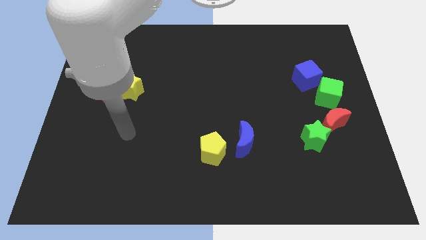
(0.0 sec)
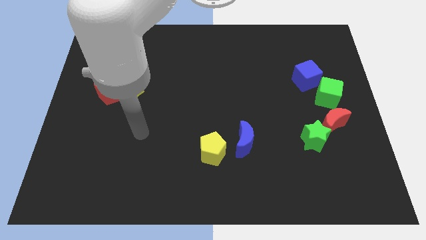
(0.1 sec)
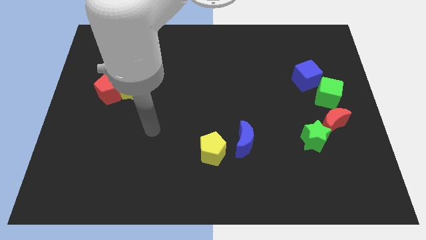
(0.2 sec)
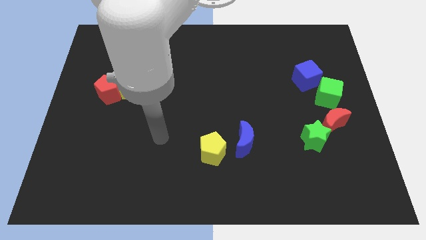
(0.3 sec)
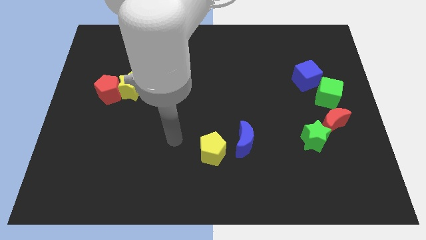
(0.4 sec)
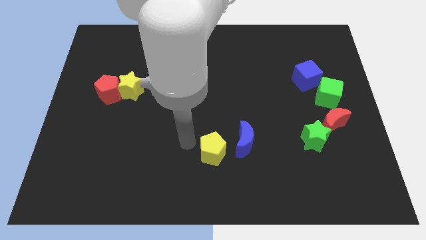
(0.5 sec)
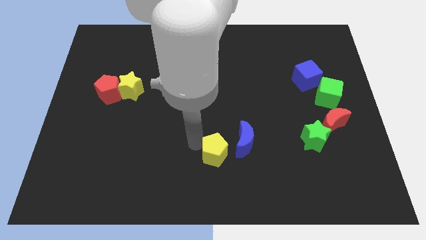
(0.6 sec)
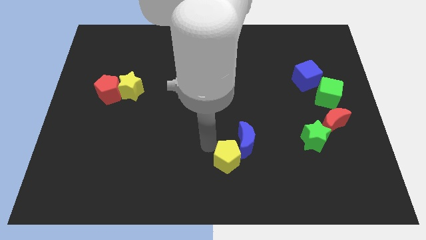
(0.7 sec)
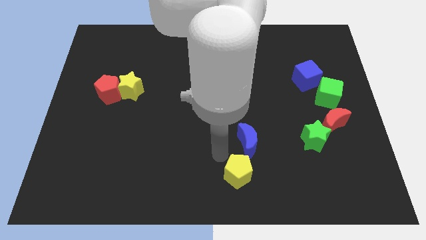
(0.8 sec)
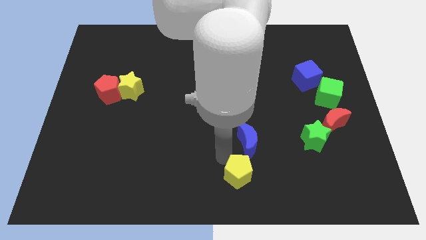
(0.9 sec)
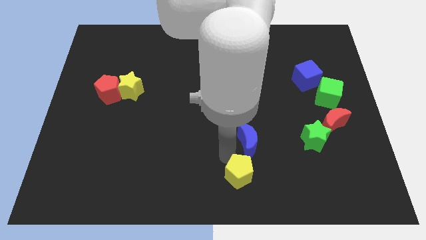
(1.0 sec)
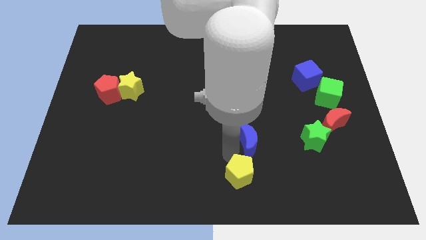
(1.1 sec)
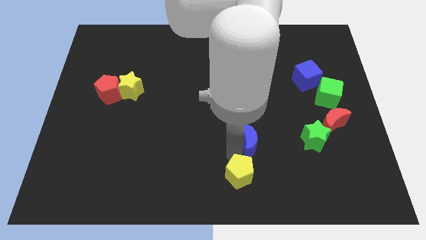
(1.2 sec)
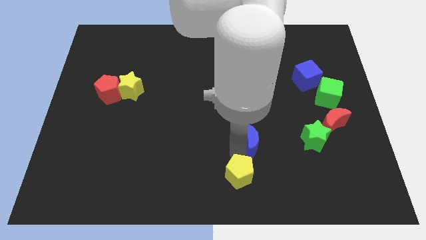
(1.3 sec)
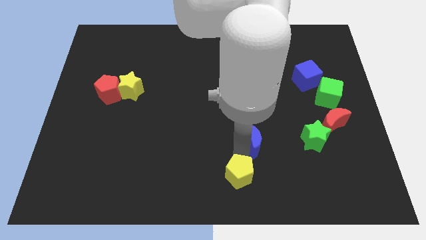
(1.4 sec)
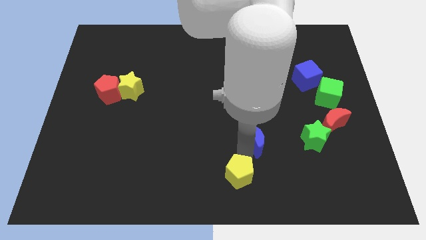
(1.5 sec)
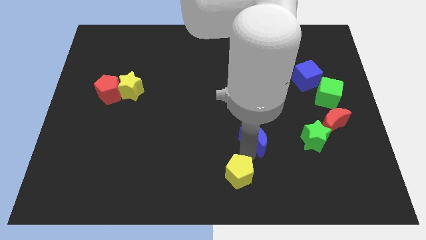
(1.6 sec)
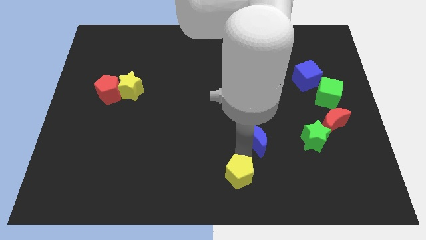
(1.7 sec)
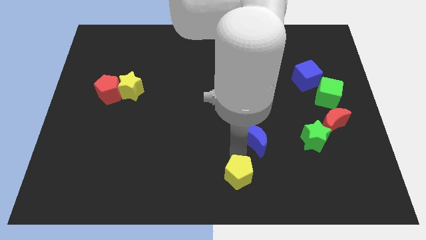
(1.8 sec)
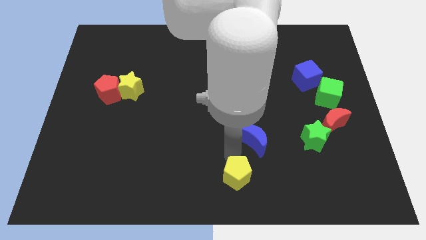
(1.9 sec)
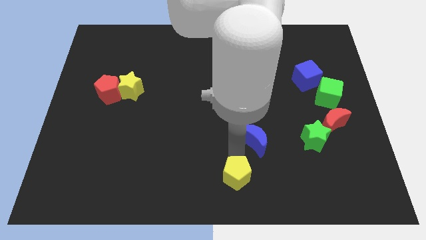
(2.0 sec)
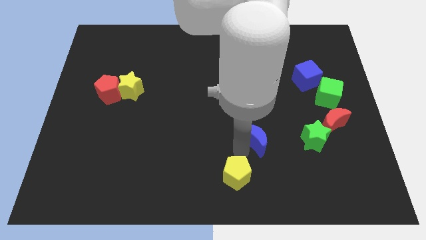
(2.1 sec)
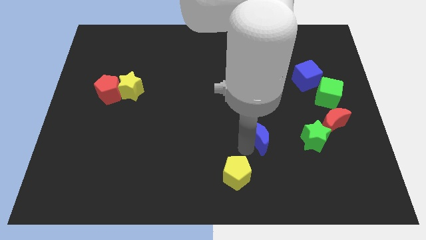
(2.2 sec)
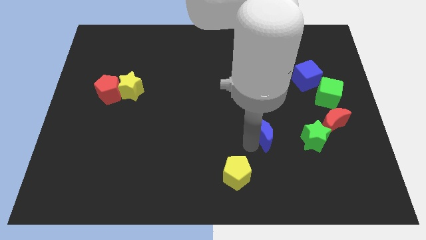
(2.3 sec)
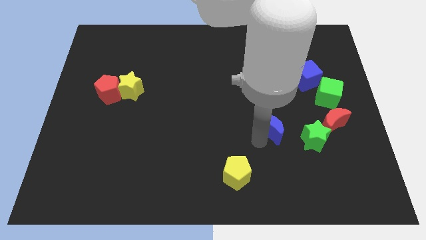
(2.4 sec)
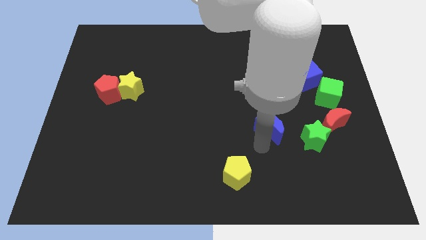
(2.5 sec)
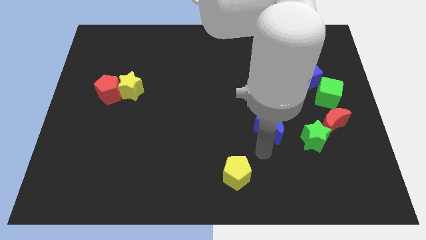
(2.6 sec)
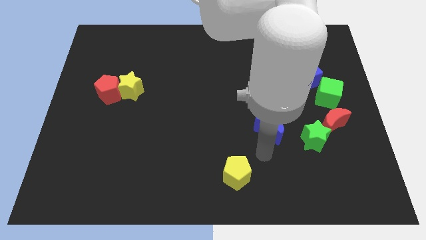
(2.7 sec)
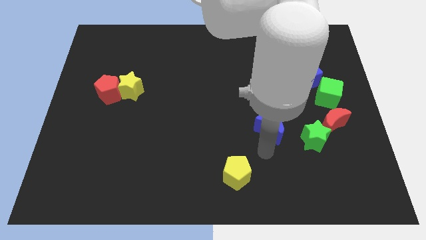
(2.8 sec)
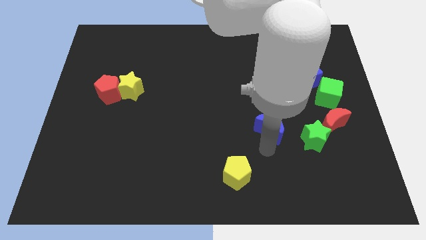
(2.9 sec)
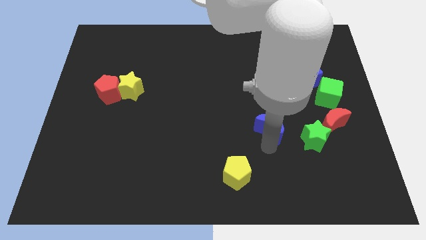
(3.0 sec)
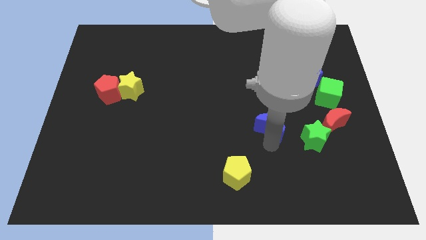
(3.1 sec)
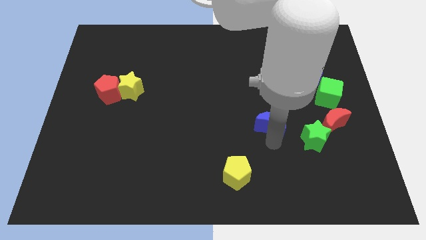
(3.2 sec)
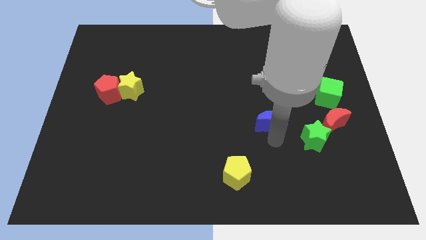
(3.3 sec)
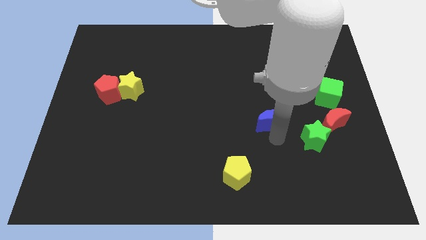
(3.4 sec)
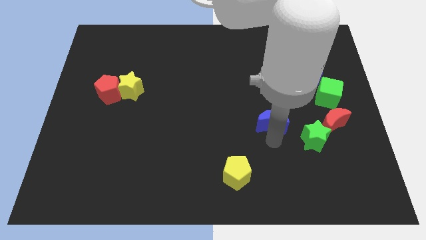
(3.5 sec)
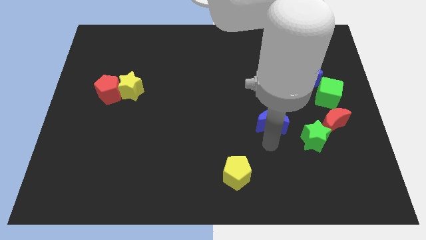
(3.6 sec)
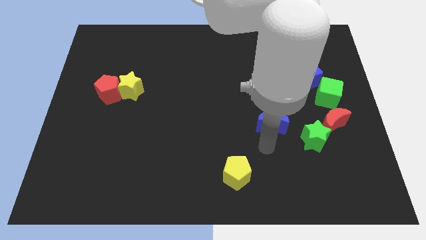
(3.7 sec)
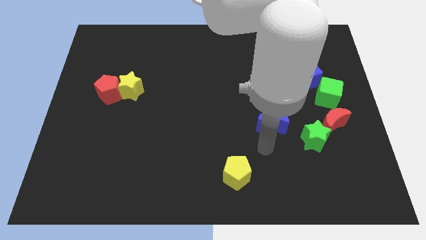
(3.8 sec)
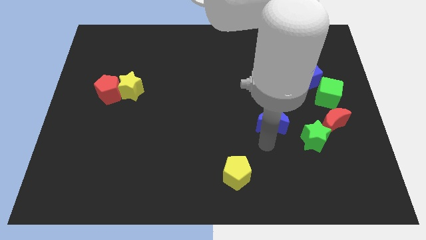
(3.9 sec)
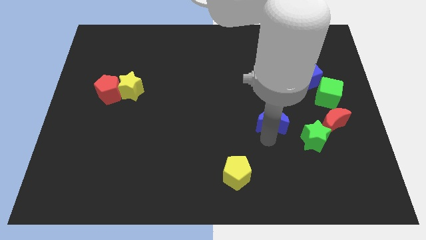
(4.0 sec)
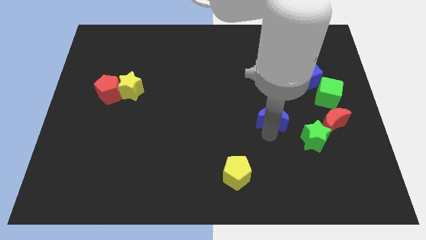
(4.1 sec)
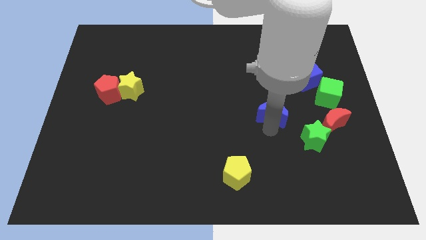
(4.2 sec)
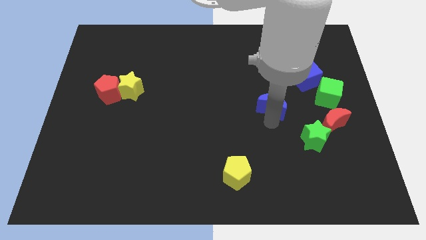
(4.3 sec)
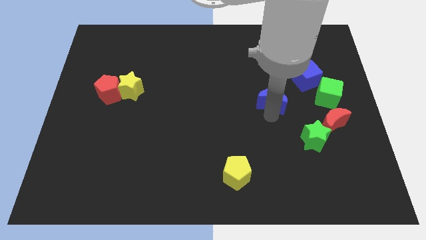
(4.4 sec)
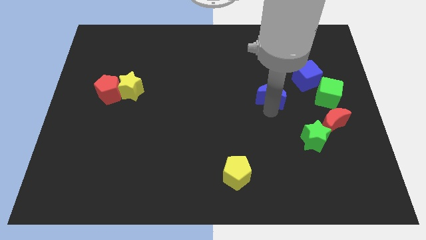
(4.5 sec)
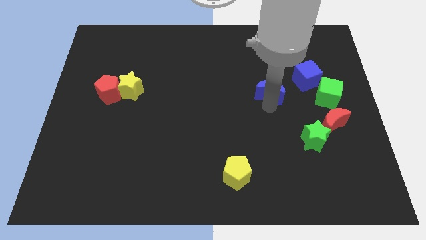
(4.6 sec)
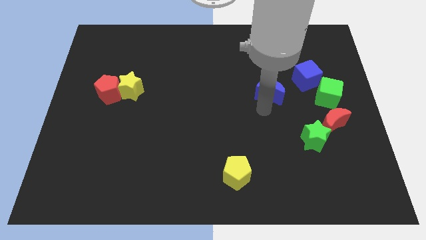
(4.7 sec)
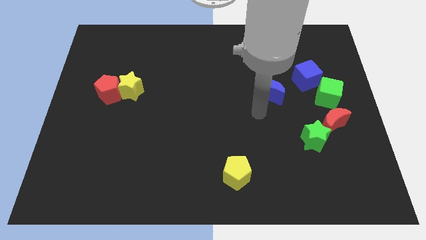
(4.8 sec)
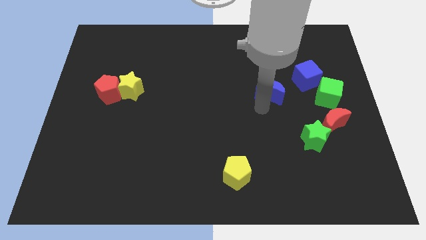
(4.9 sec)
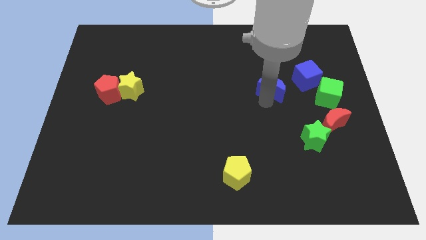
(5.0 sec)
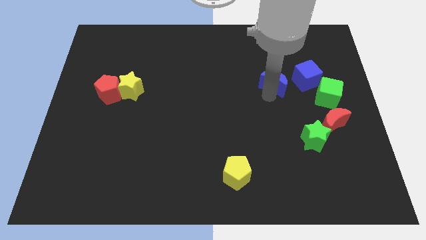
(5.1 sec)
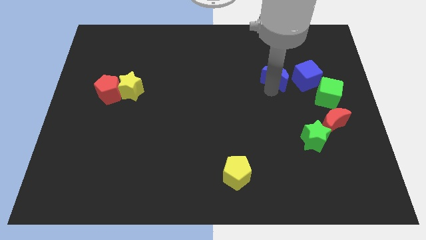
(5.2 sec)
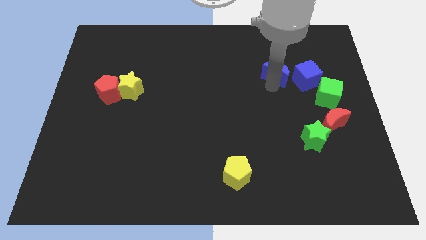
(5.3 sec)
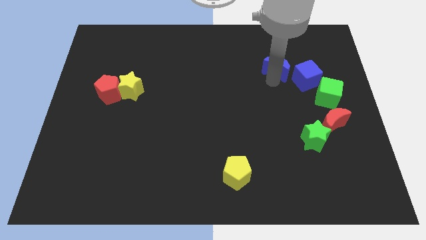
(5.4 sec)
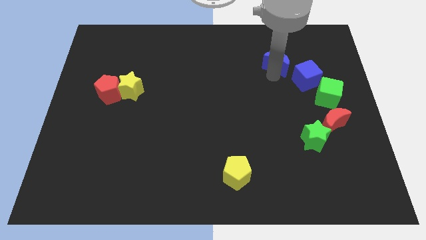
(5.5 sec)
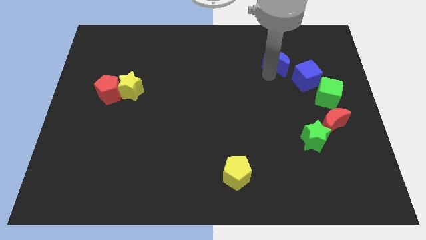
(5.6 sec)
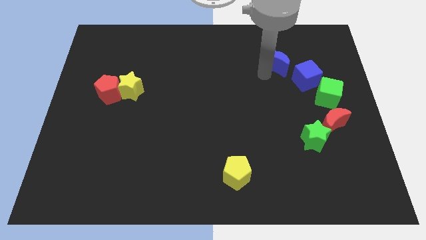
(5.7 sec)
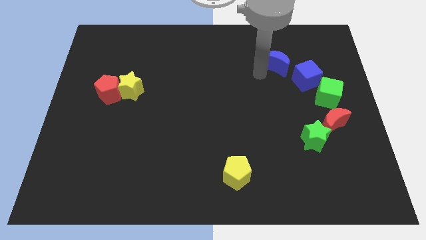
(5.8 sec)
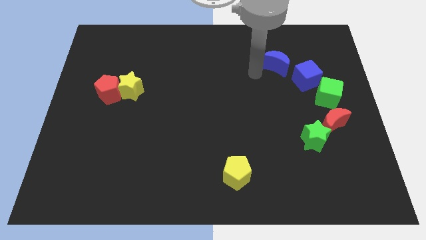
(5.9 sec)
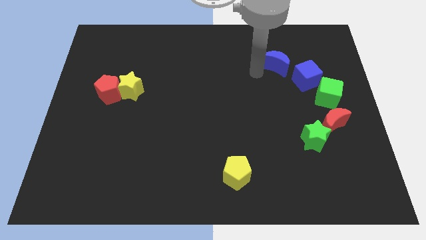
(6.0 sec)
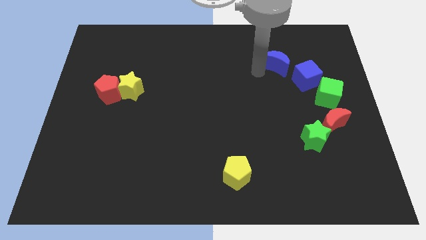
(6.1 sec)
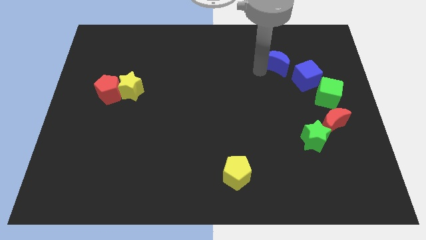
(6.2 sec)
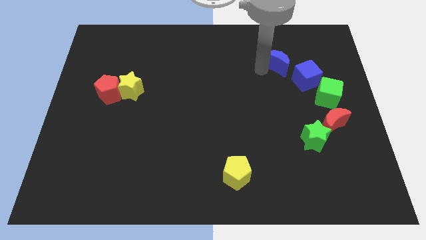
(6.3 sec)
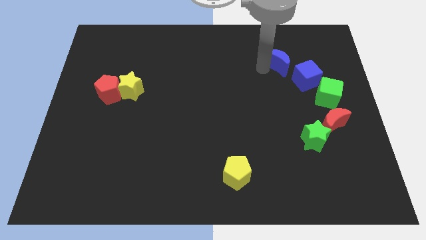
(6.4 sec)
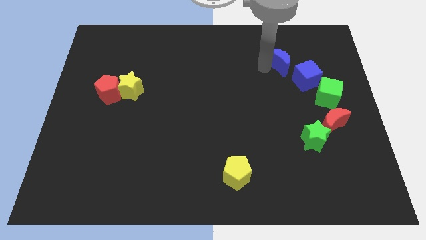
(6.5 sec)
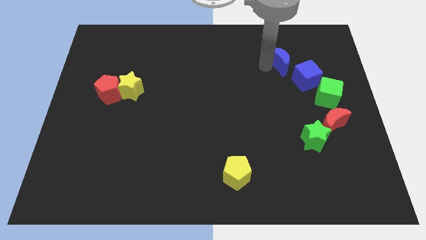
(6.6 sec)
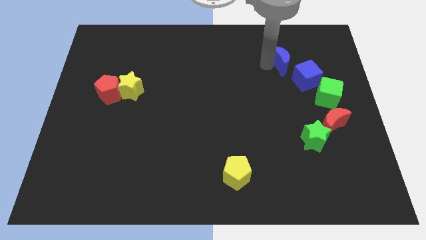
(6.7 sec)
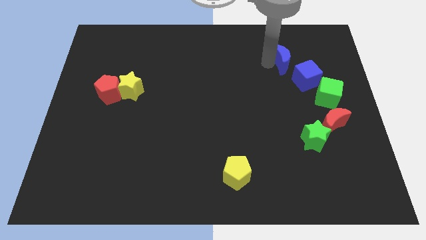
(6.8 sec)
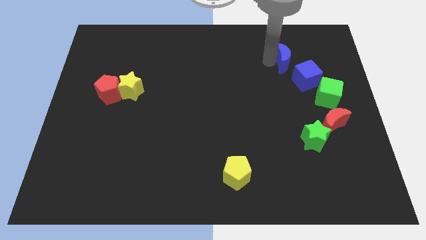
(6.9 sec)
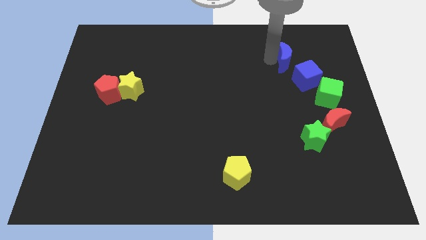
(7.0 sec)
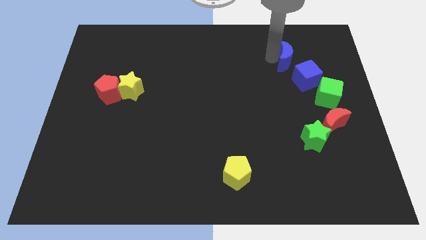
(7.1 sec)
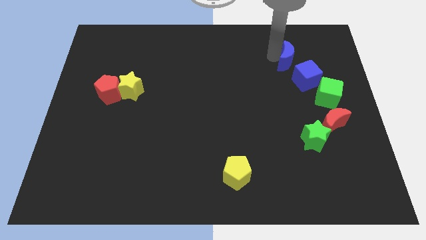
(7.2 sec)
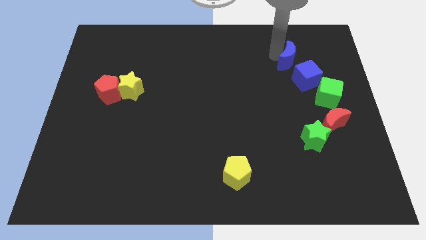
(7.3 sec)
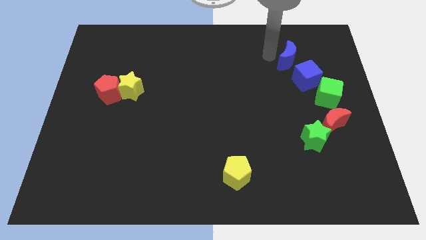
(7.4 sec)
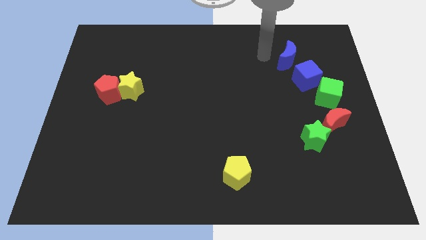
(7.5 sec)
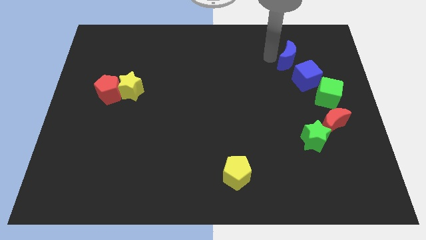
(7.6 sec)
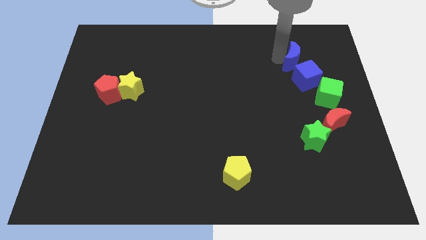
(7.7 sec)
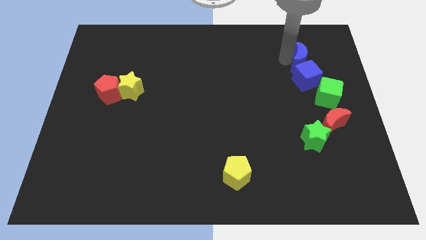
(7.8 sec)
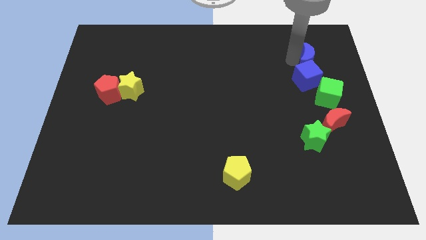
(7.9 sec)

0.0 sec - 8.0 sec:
push the blue moon above the green cube
